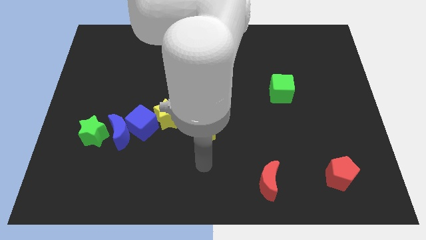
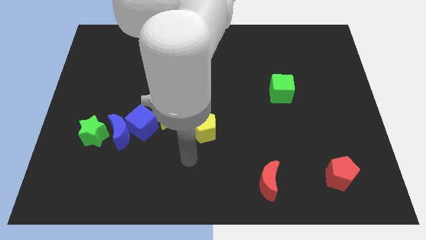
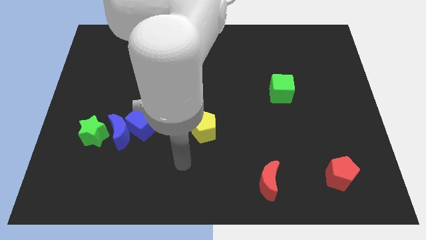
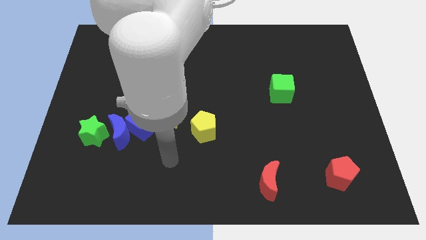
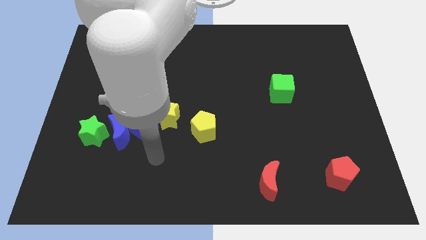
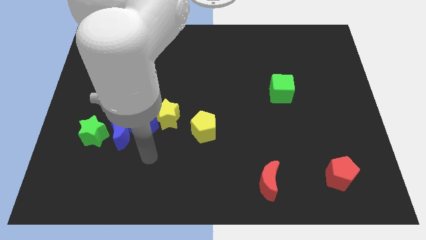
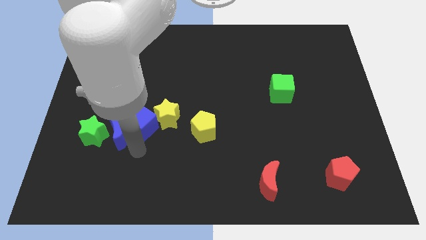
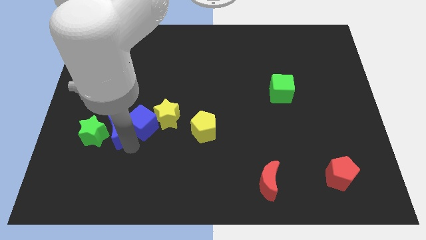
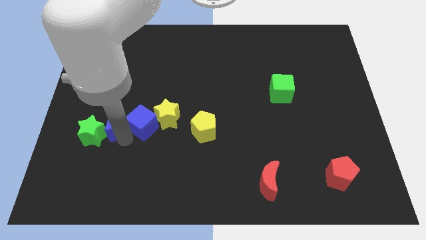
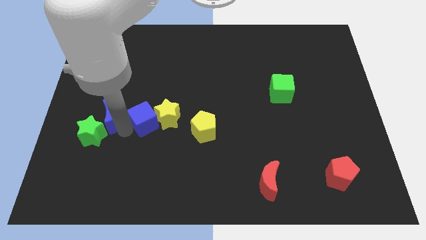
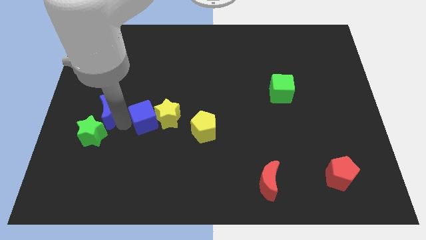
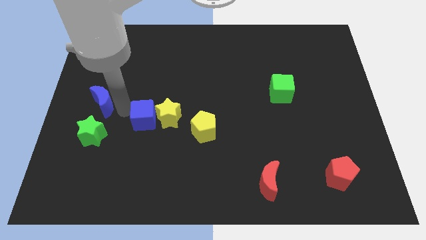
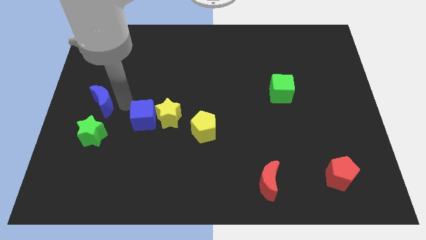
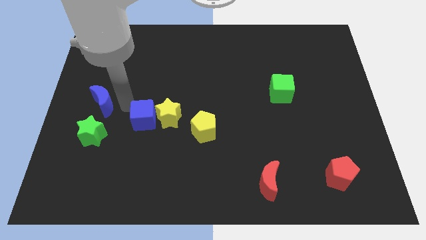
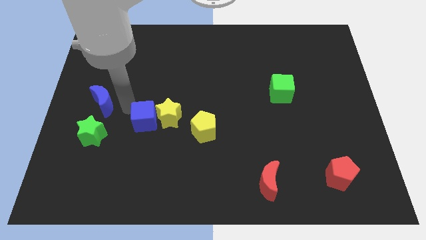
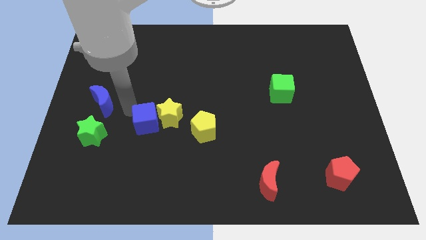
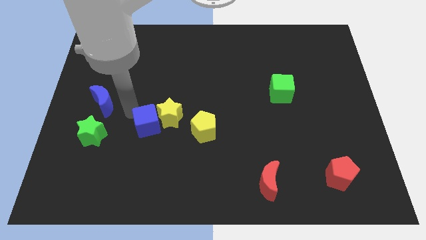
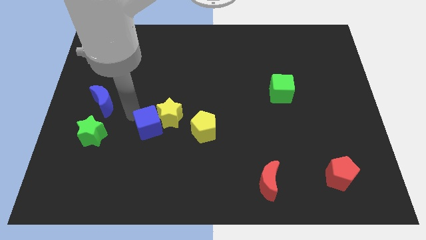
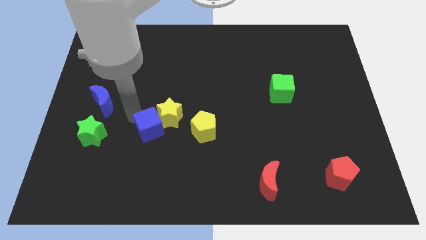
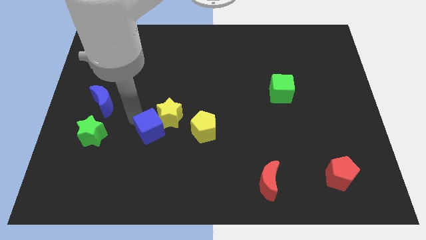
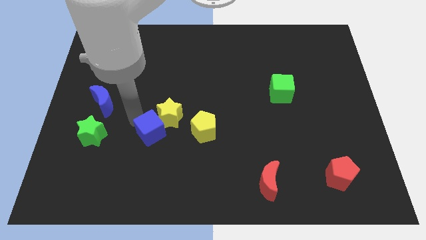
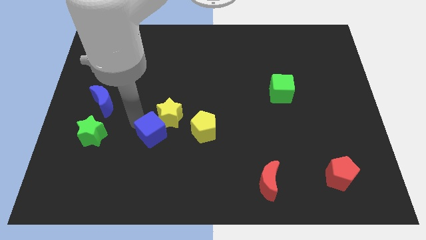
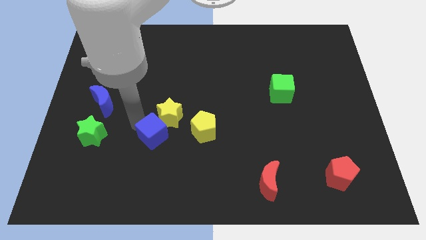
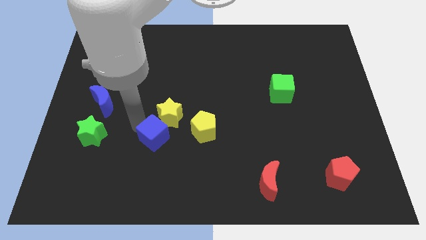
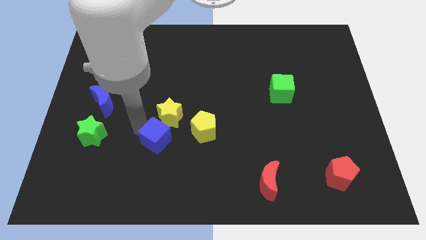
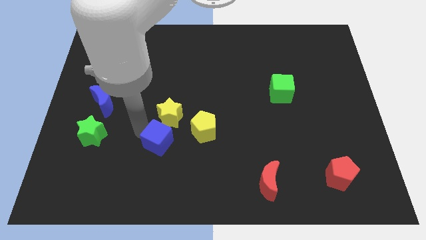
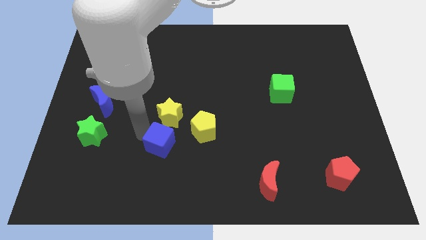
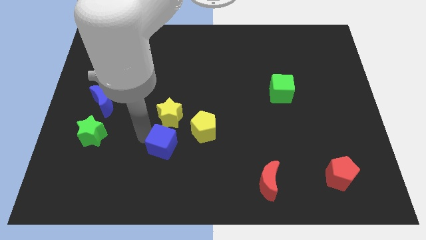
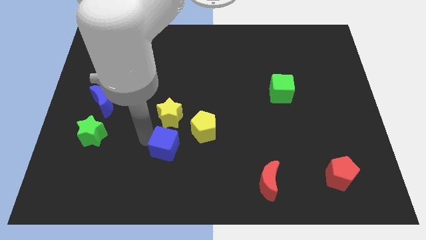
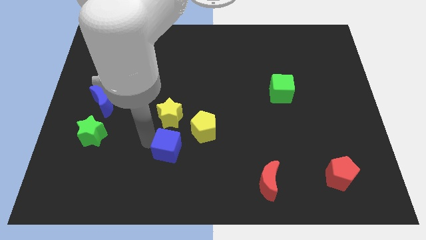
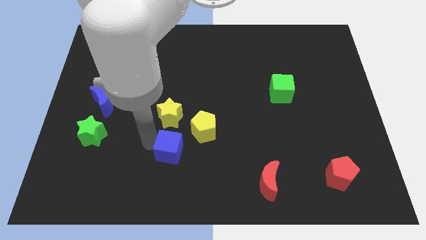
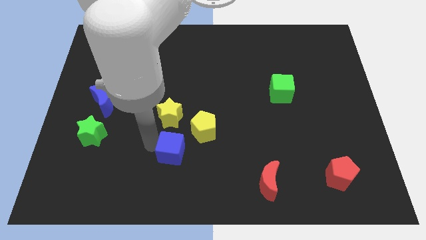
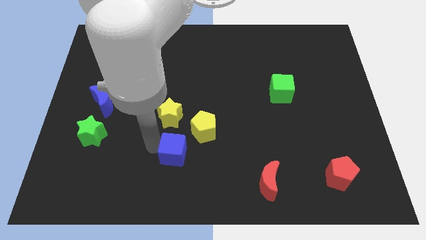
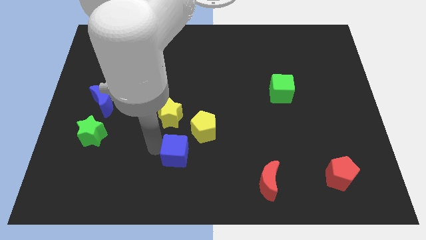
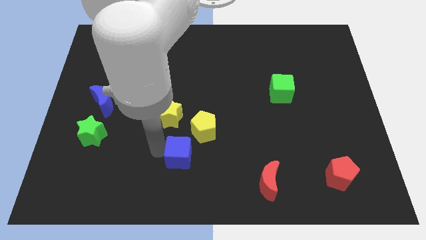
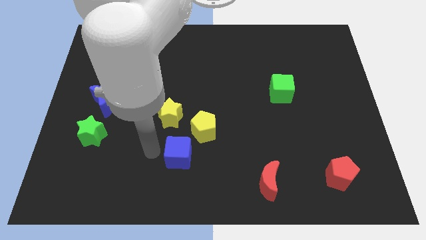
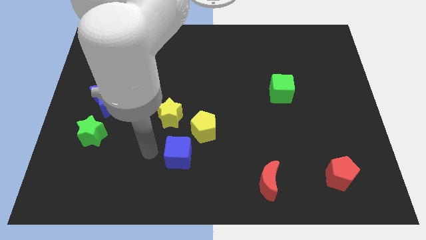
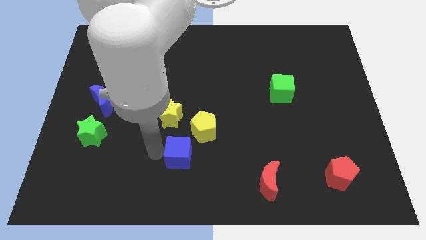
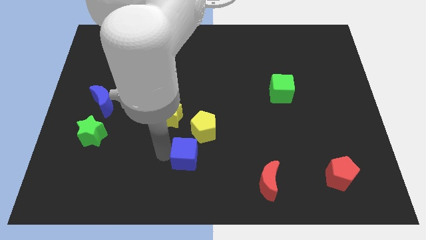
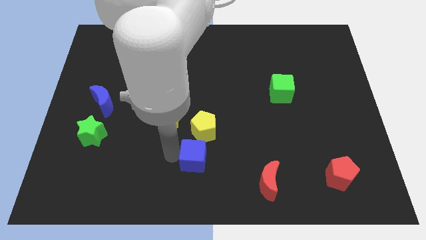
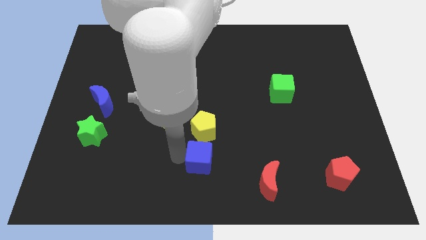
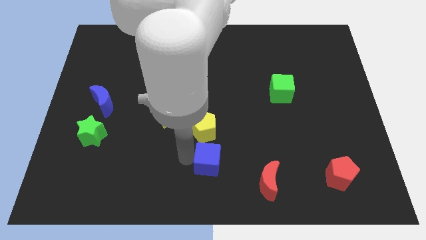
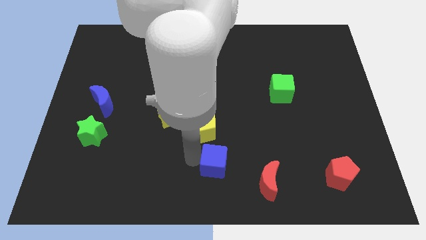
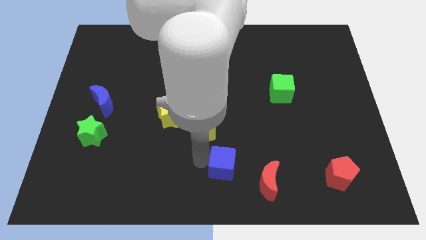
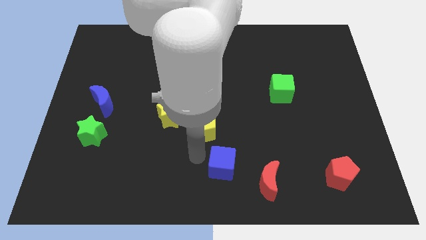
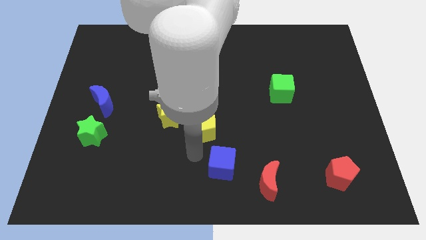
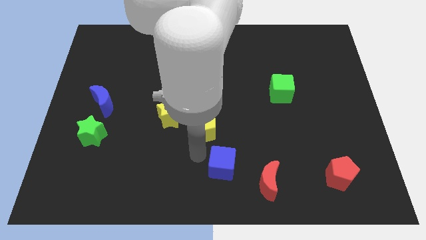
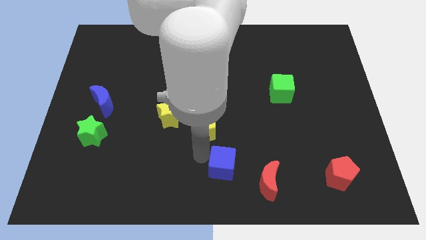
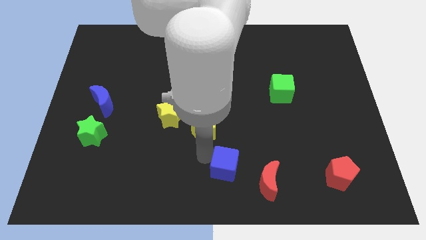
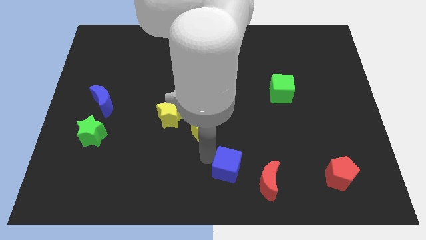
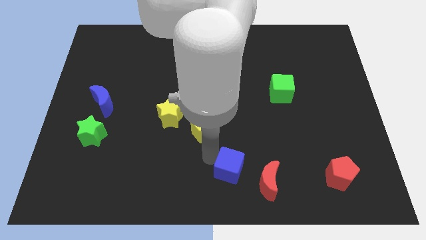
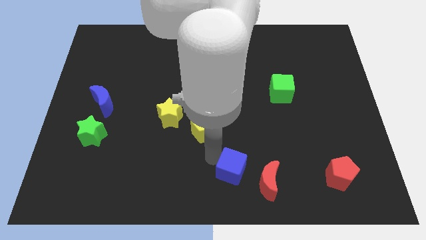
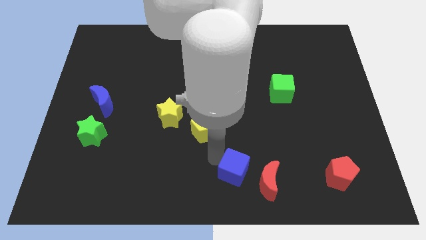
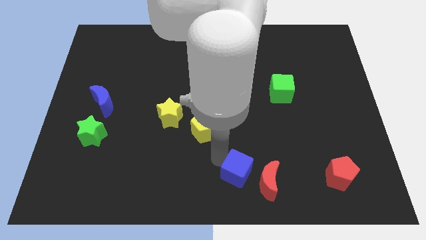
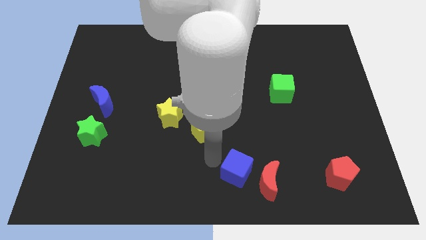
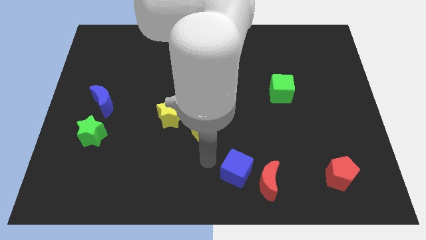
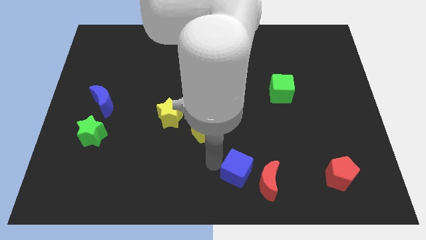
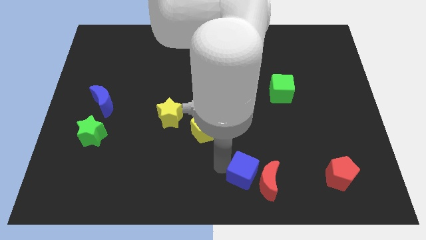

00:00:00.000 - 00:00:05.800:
move the blue cube to the red moon

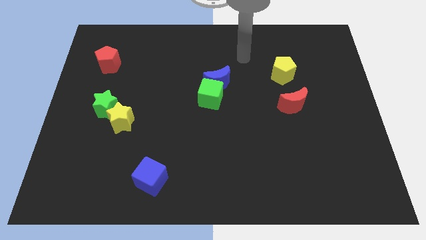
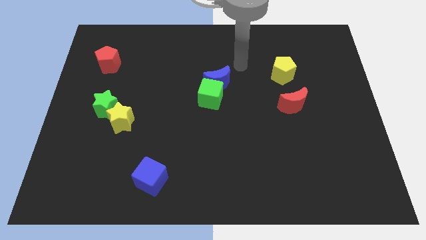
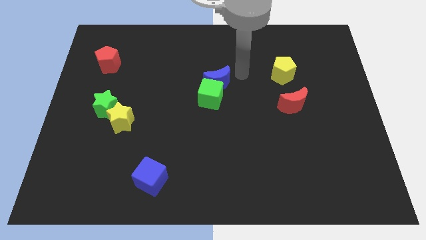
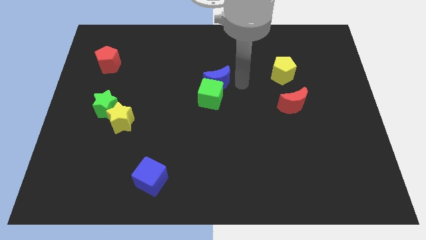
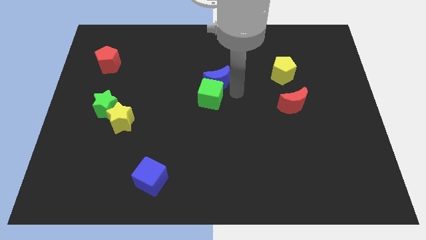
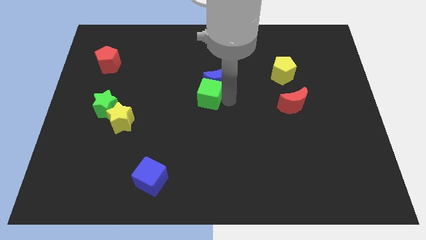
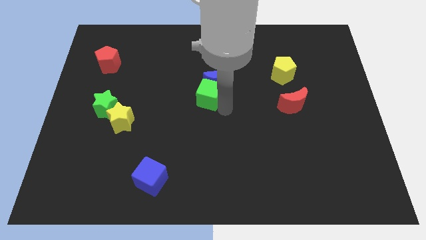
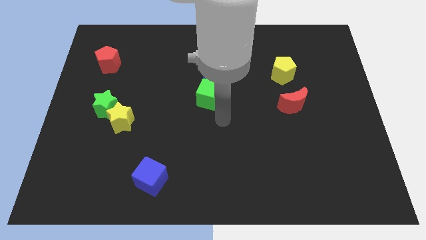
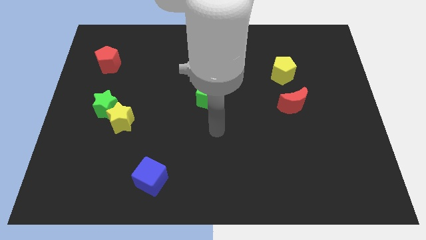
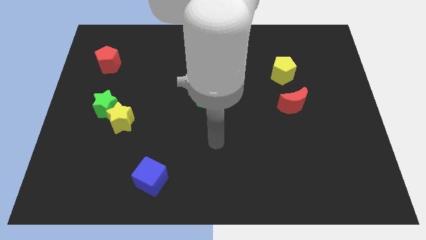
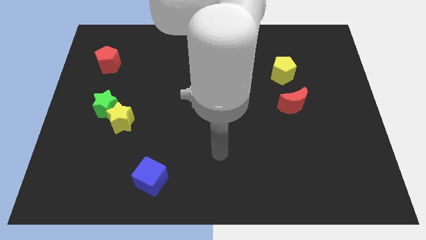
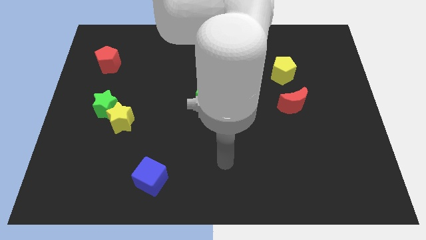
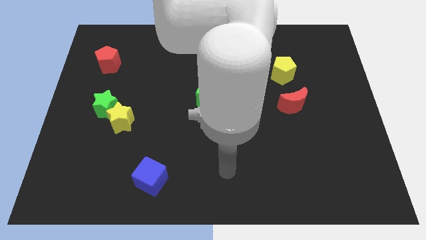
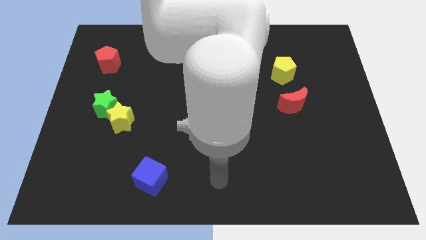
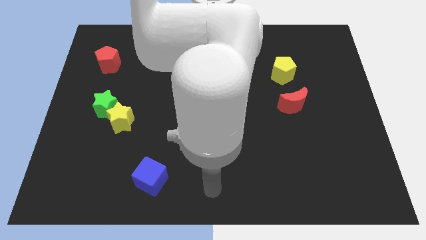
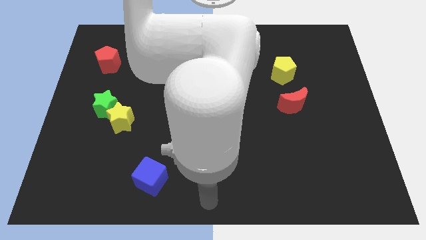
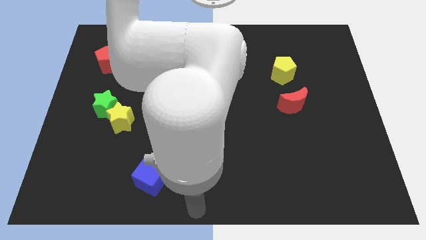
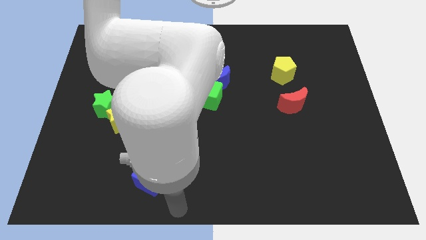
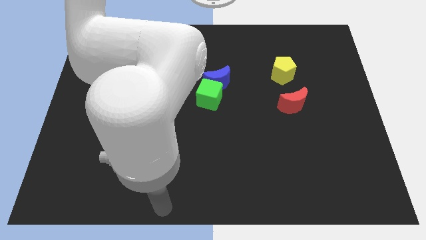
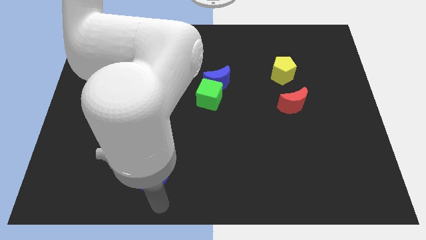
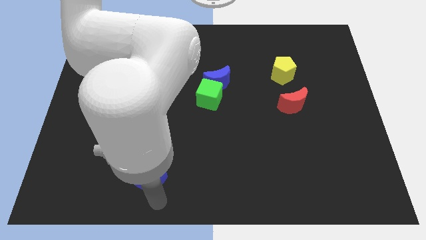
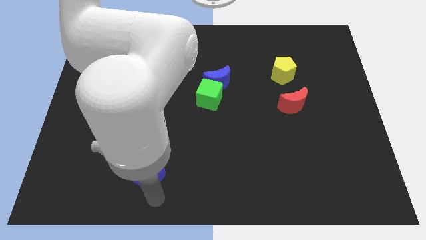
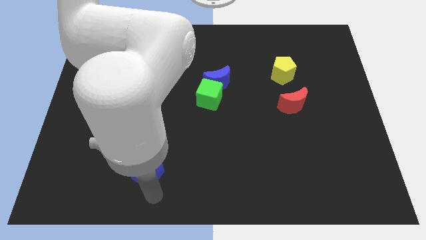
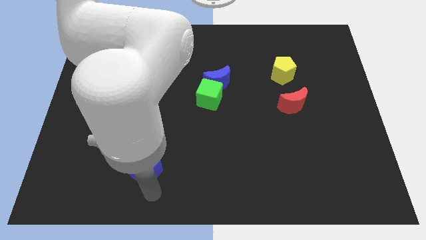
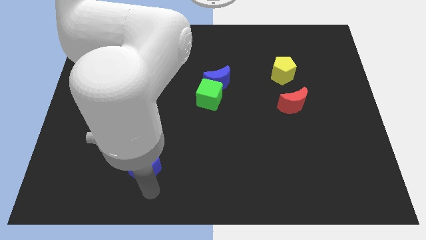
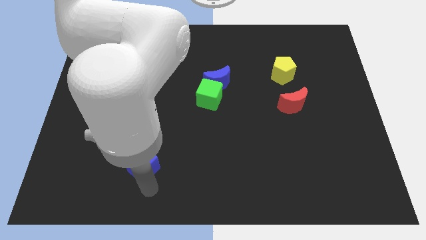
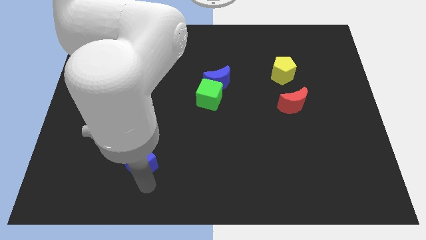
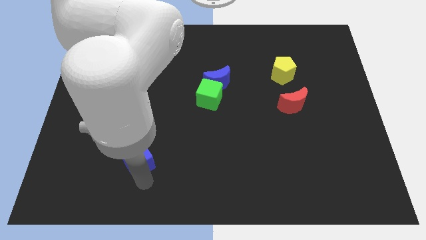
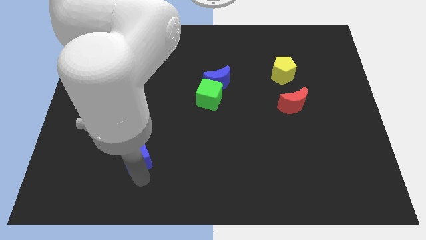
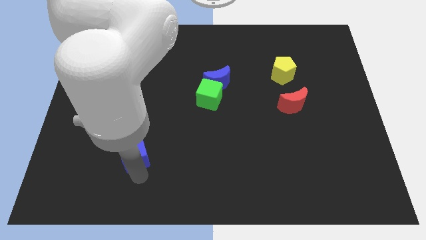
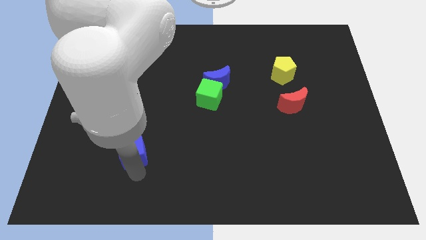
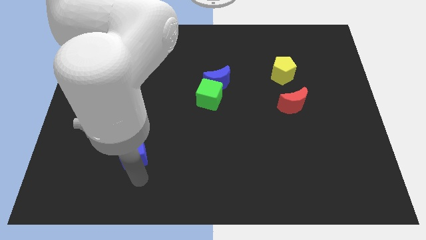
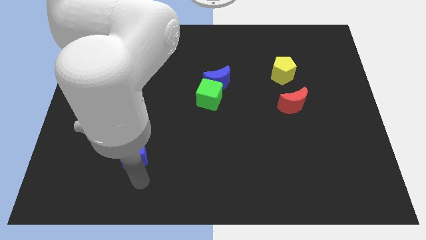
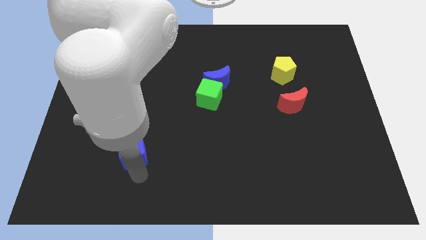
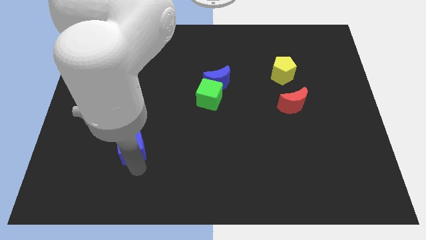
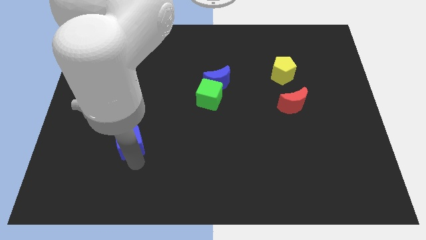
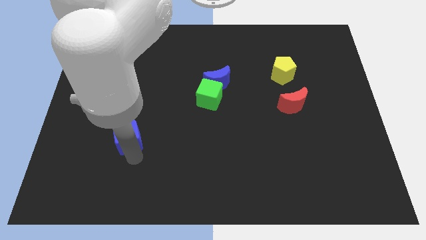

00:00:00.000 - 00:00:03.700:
slide the blue cube to the yellow star
